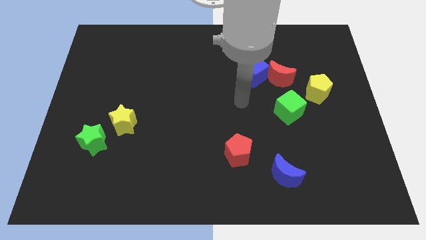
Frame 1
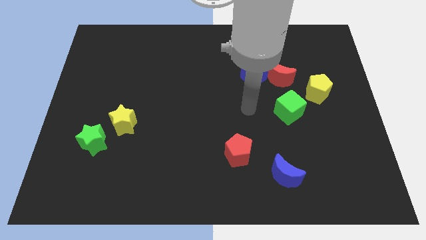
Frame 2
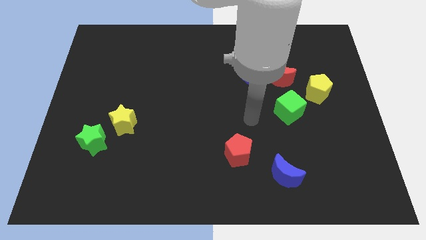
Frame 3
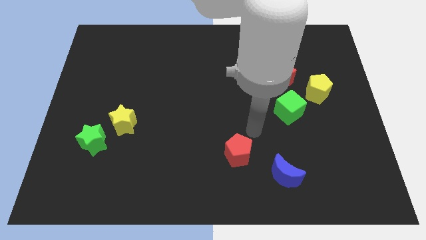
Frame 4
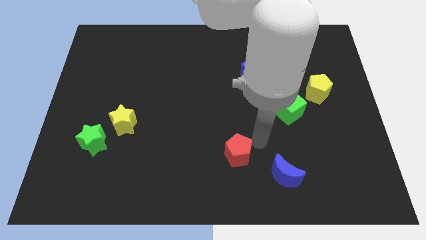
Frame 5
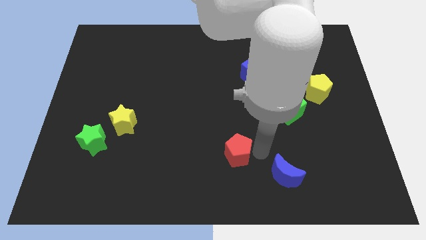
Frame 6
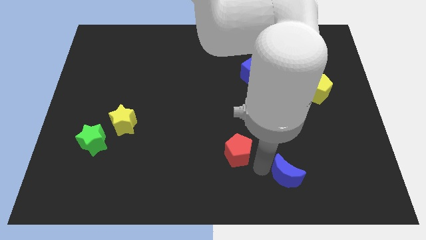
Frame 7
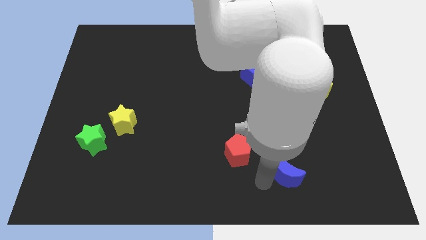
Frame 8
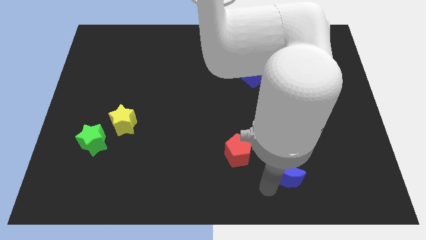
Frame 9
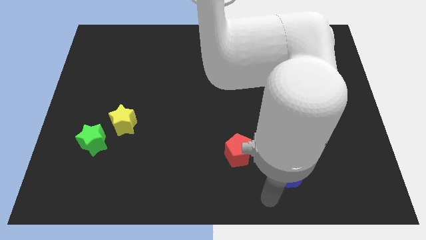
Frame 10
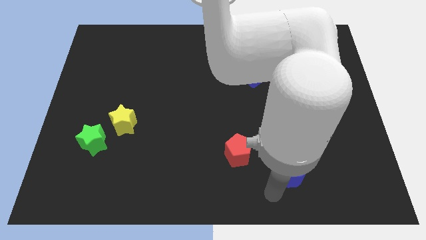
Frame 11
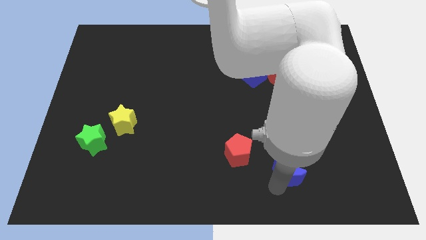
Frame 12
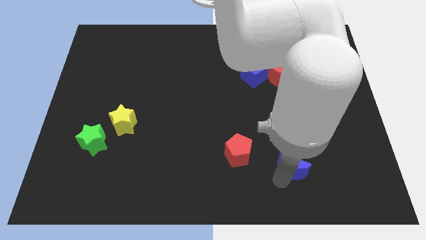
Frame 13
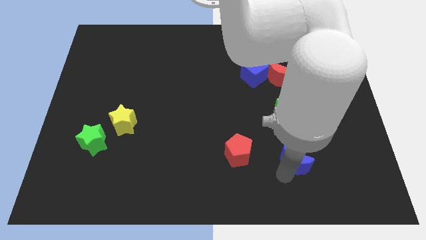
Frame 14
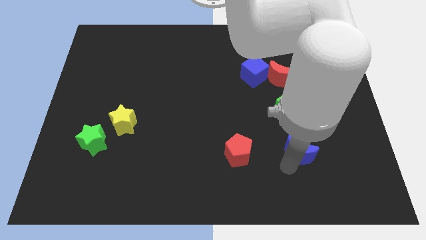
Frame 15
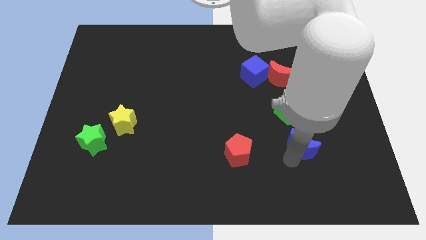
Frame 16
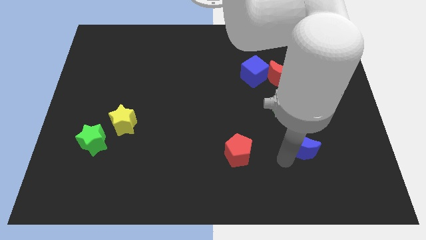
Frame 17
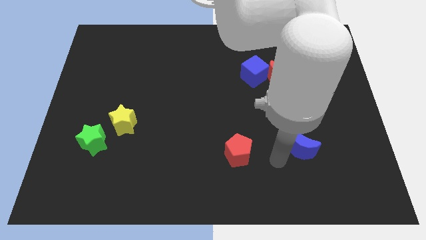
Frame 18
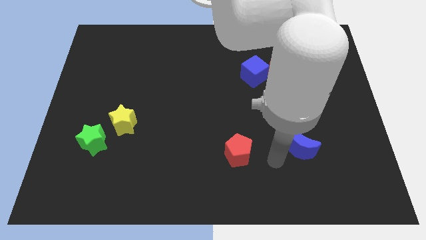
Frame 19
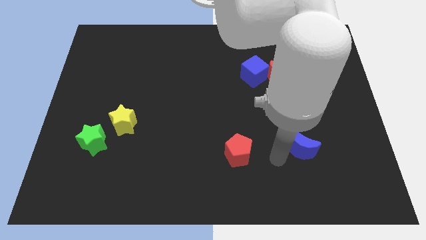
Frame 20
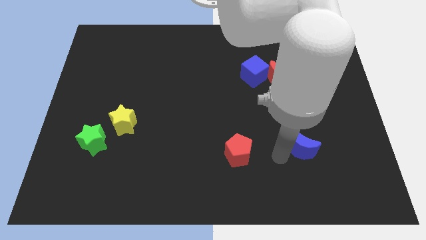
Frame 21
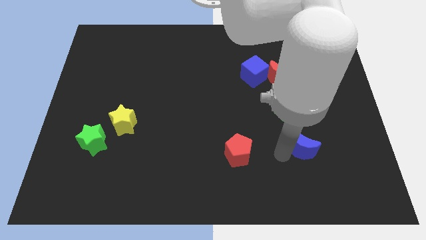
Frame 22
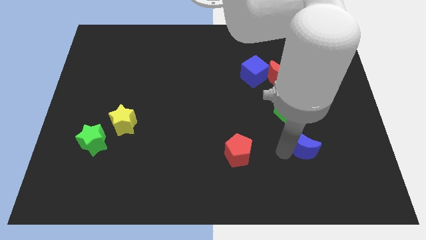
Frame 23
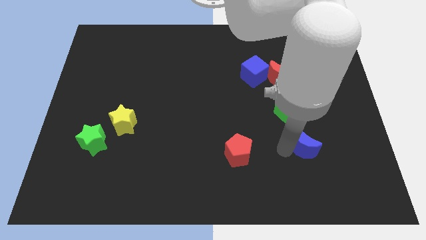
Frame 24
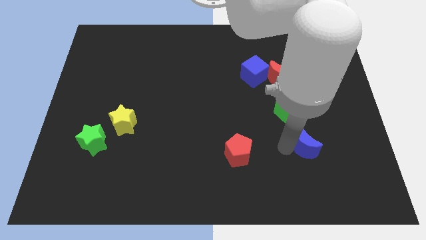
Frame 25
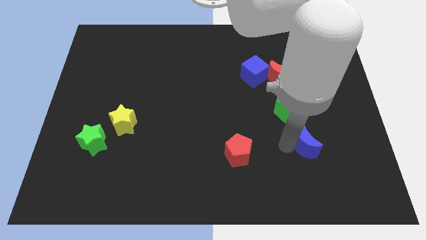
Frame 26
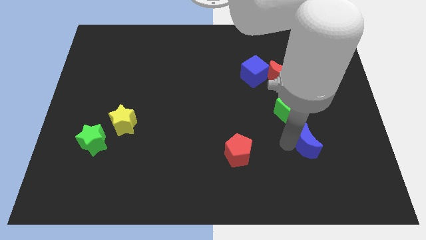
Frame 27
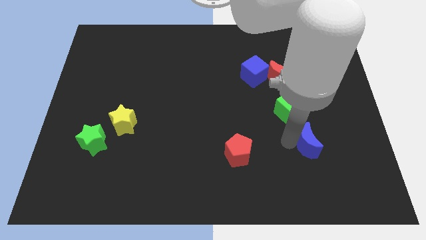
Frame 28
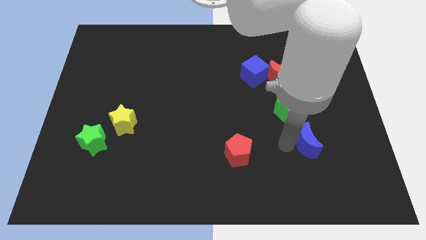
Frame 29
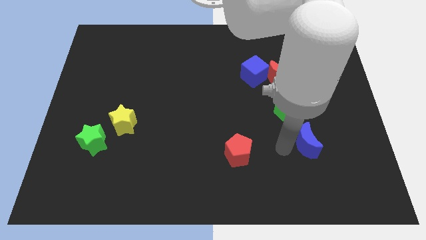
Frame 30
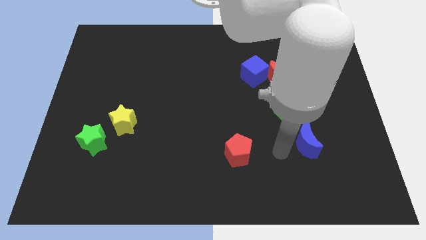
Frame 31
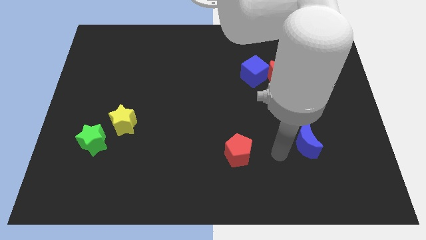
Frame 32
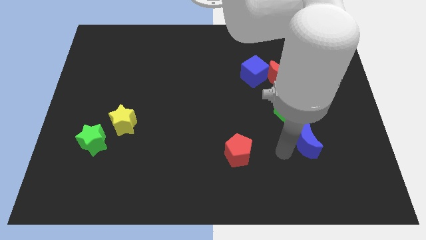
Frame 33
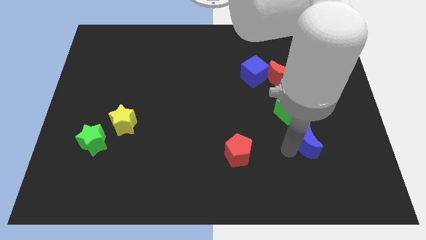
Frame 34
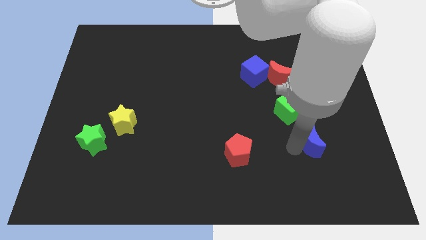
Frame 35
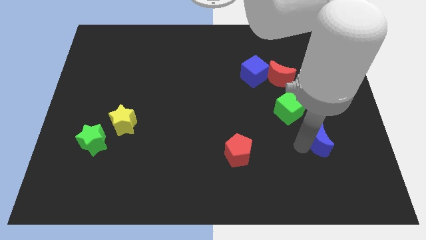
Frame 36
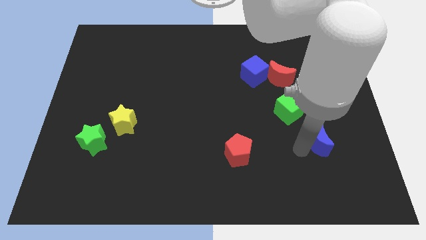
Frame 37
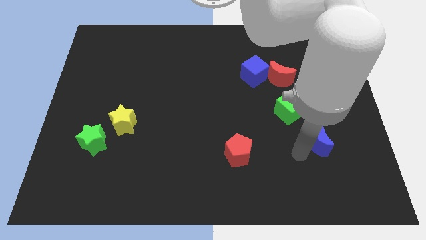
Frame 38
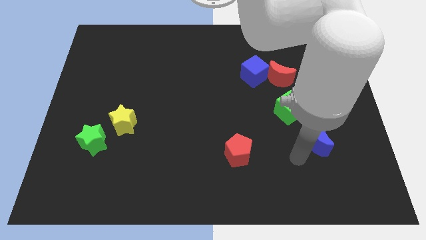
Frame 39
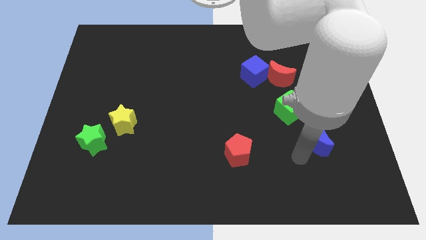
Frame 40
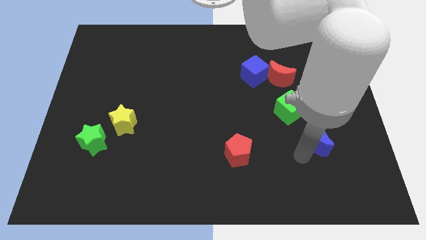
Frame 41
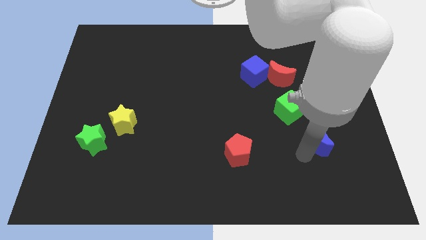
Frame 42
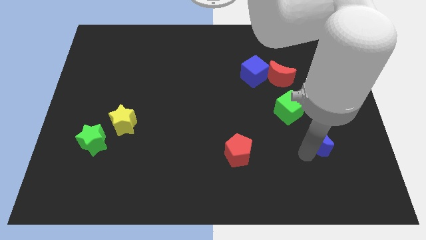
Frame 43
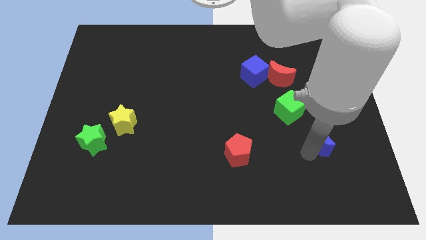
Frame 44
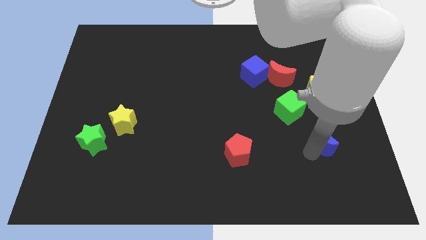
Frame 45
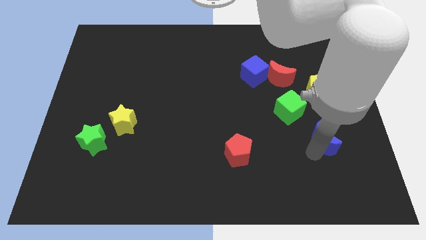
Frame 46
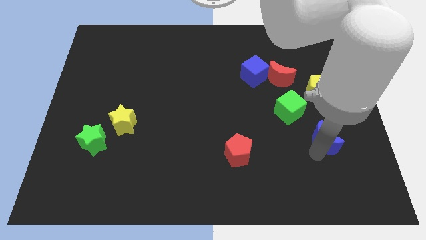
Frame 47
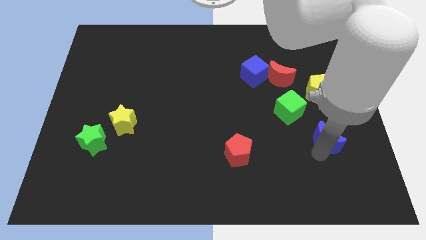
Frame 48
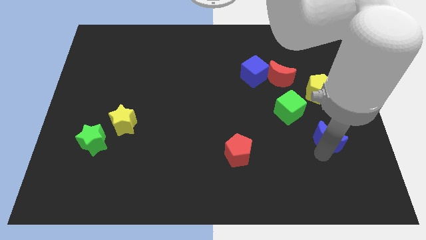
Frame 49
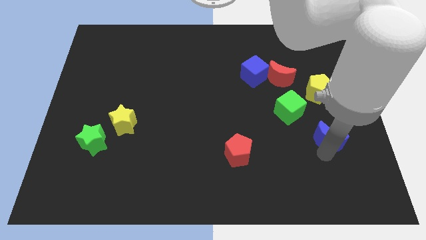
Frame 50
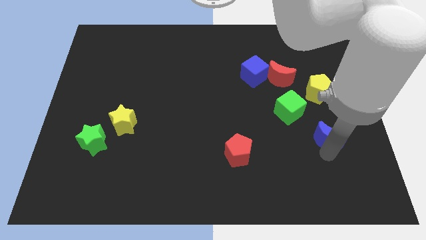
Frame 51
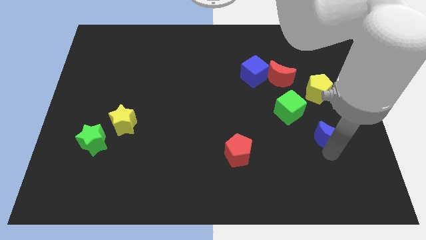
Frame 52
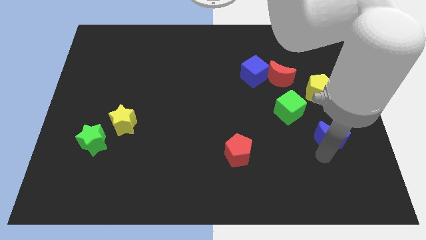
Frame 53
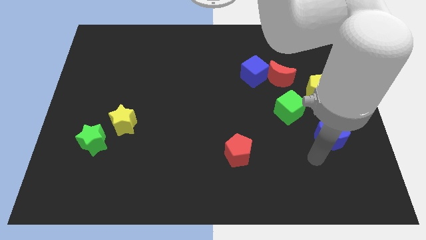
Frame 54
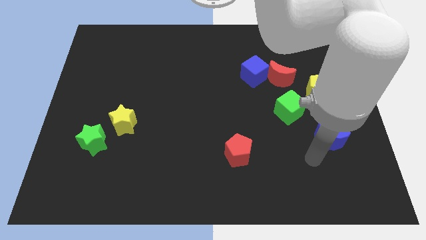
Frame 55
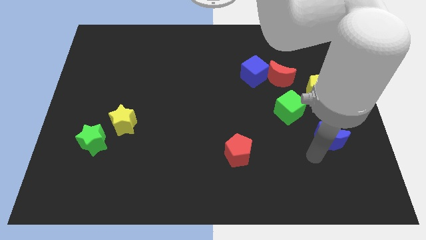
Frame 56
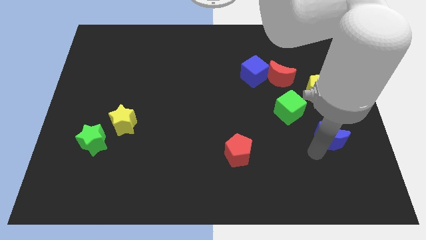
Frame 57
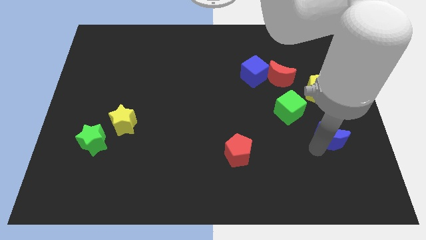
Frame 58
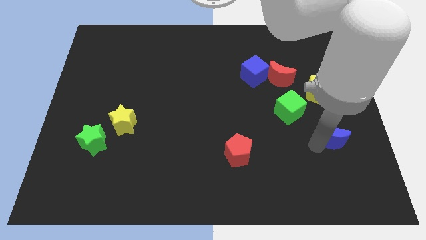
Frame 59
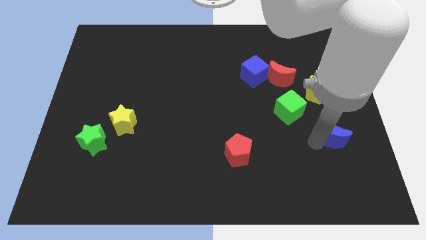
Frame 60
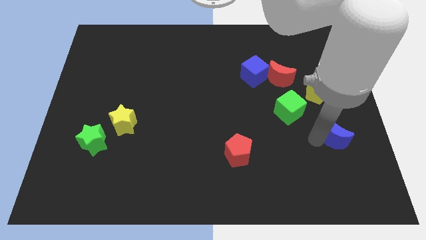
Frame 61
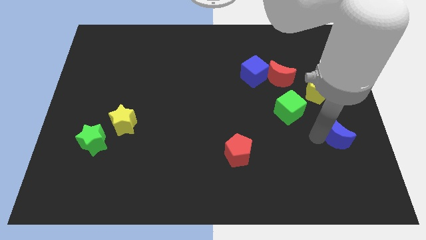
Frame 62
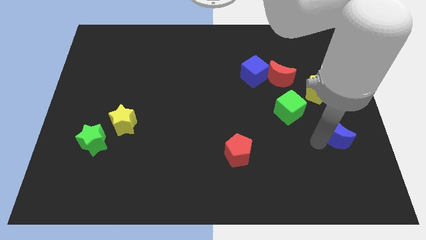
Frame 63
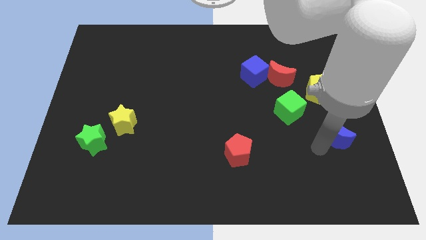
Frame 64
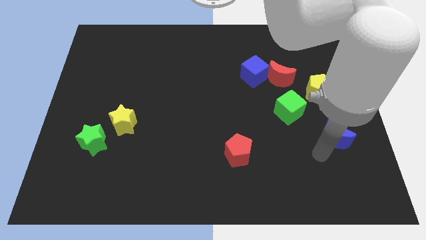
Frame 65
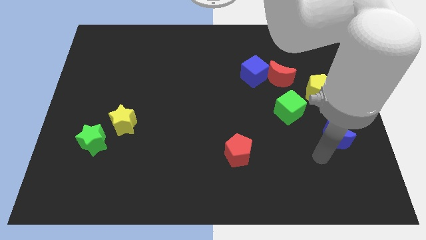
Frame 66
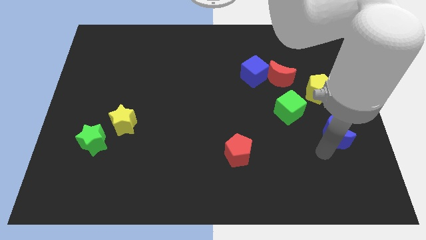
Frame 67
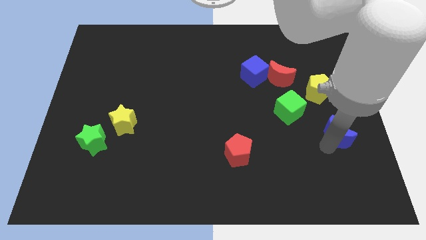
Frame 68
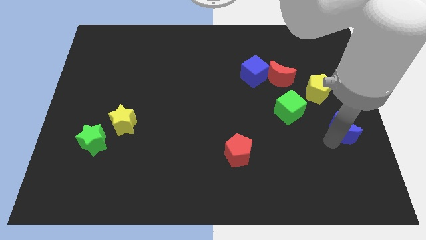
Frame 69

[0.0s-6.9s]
slide the blue moon to the center right
